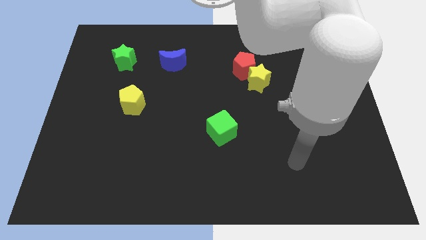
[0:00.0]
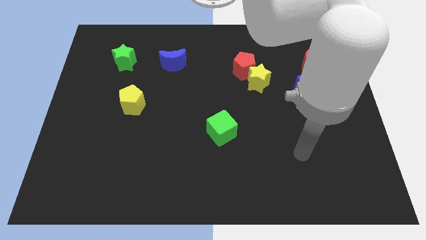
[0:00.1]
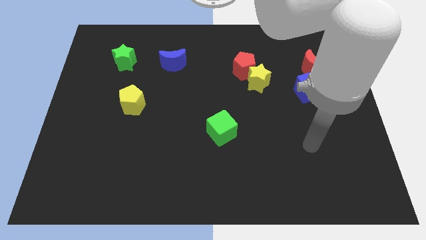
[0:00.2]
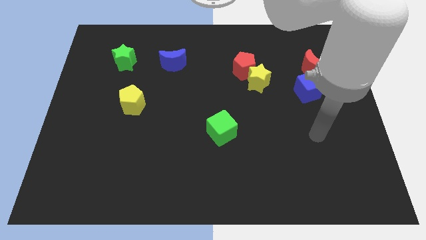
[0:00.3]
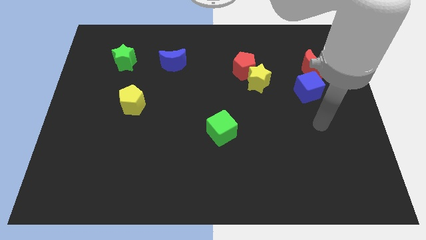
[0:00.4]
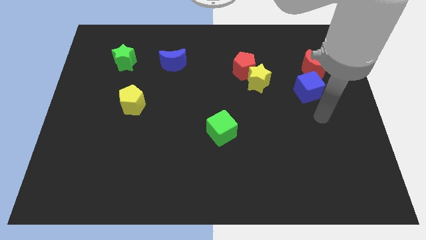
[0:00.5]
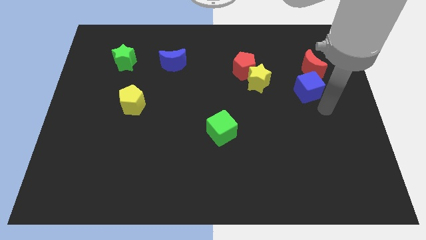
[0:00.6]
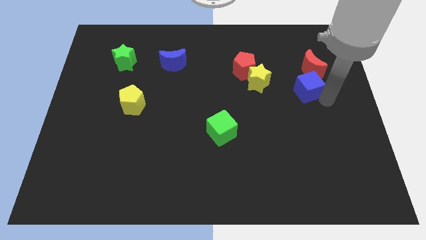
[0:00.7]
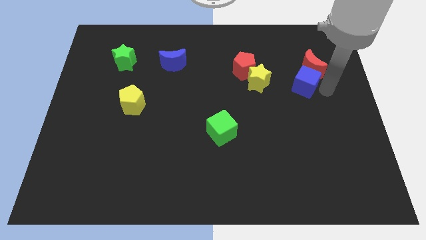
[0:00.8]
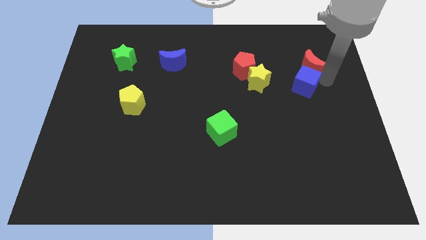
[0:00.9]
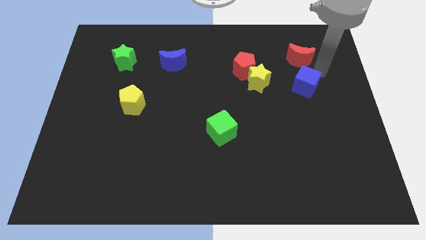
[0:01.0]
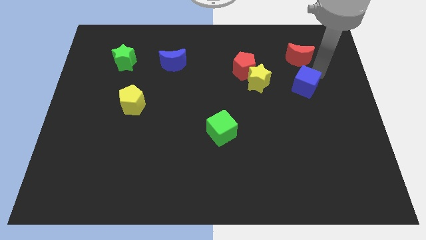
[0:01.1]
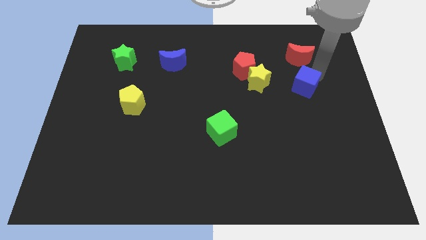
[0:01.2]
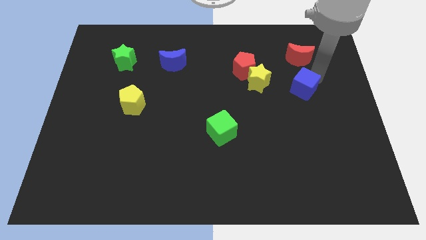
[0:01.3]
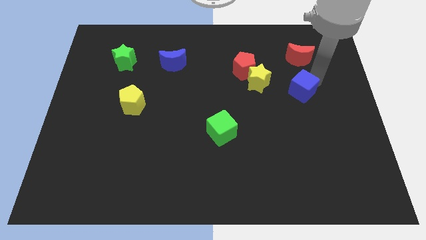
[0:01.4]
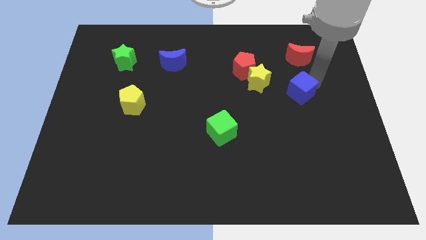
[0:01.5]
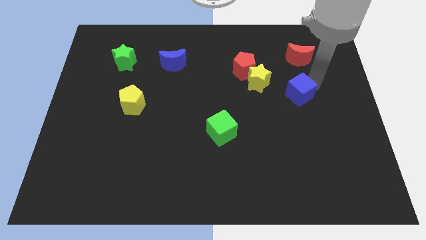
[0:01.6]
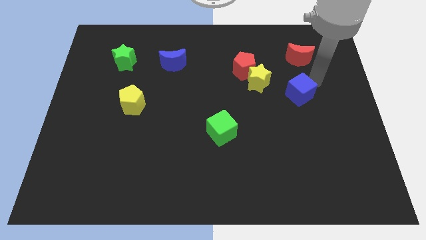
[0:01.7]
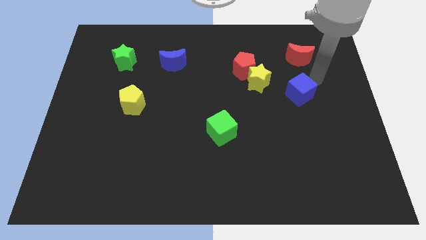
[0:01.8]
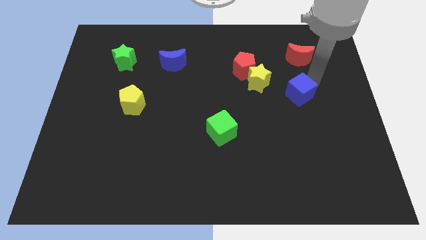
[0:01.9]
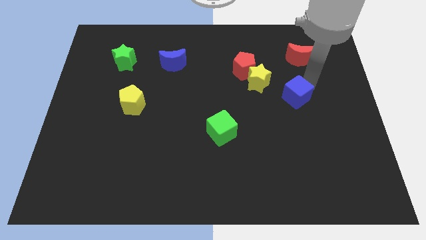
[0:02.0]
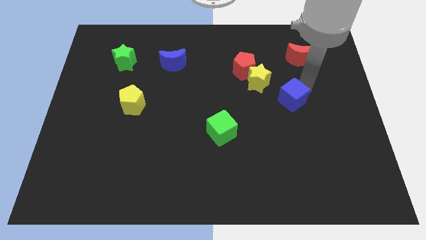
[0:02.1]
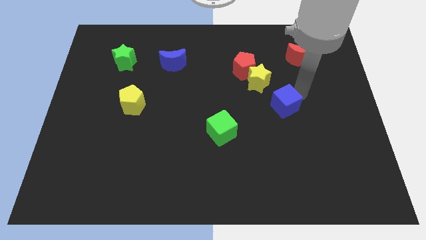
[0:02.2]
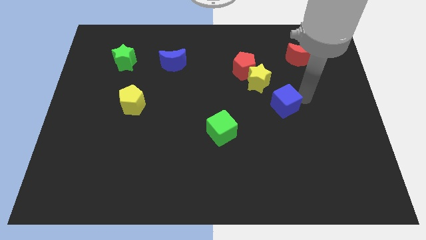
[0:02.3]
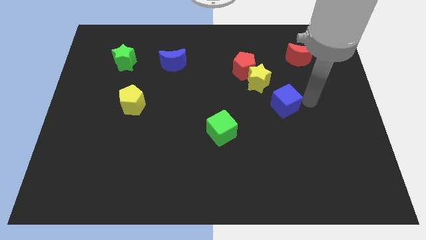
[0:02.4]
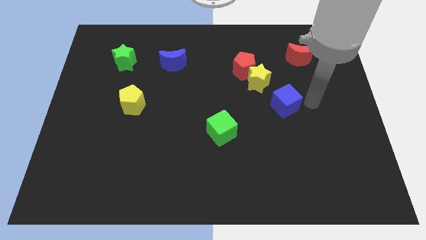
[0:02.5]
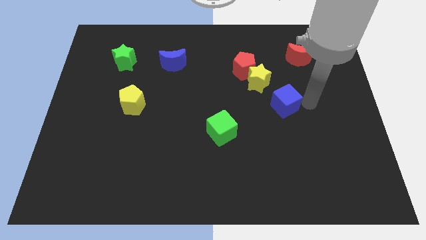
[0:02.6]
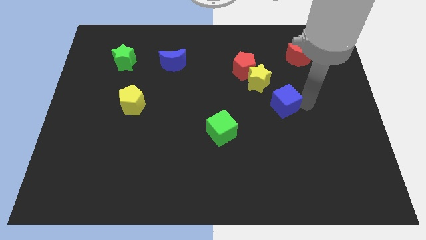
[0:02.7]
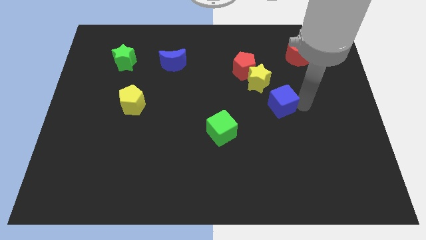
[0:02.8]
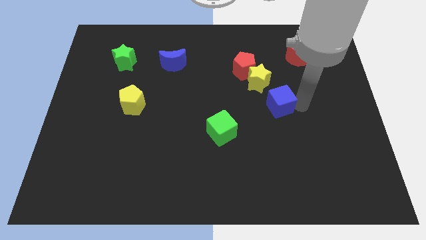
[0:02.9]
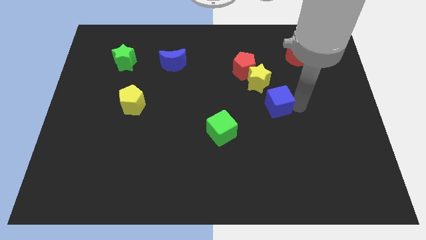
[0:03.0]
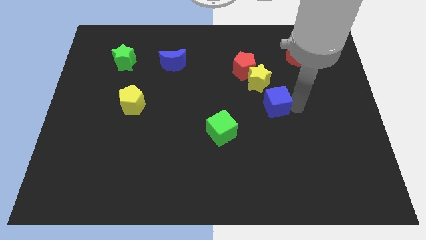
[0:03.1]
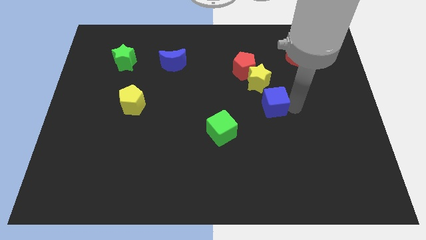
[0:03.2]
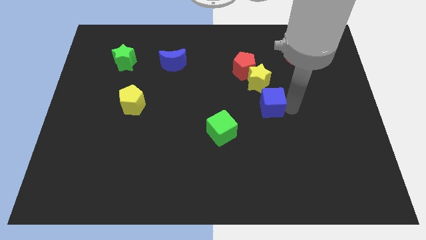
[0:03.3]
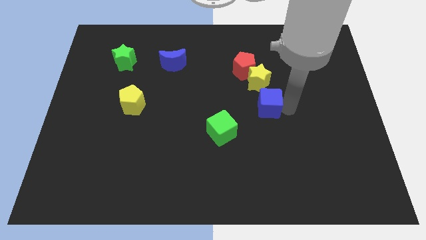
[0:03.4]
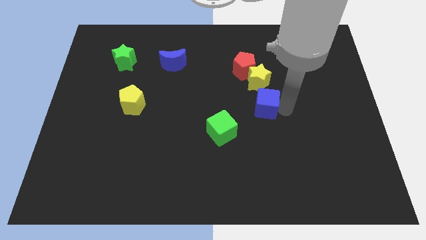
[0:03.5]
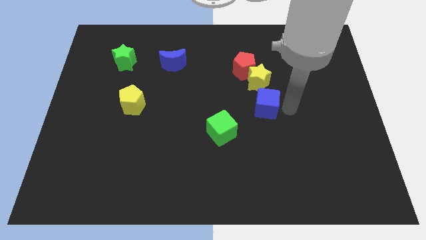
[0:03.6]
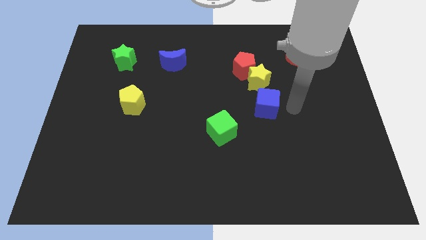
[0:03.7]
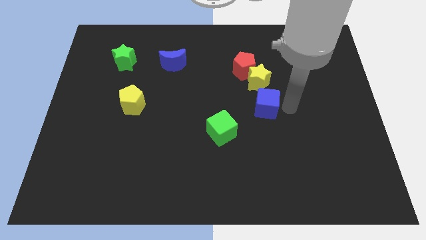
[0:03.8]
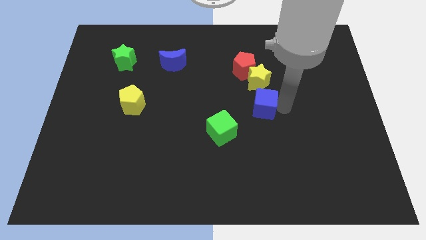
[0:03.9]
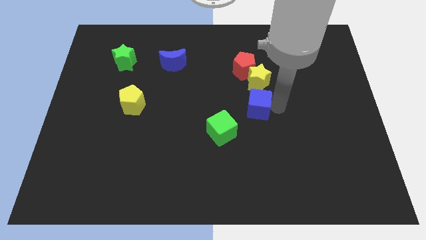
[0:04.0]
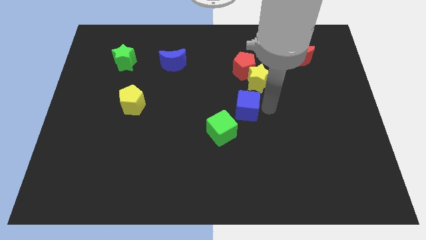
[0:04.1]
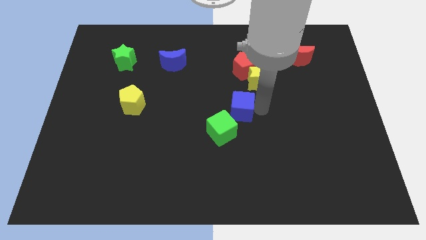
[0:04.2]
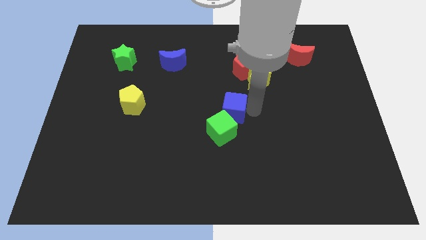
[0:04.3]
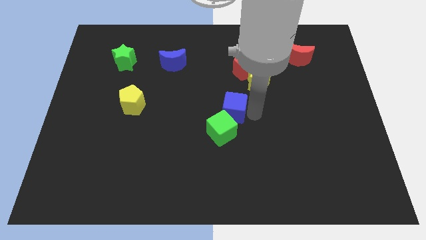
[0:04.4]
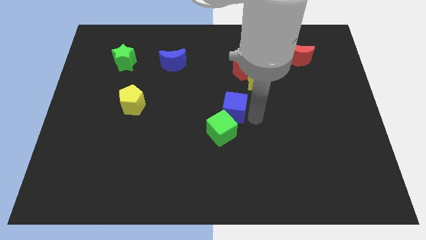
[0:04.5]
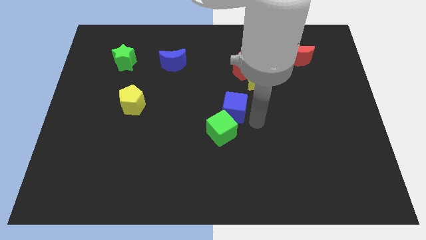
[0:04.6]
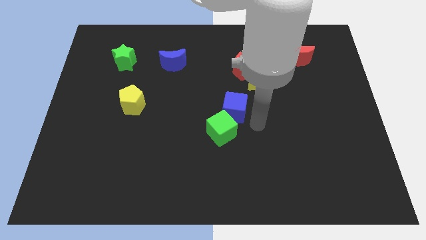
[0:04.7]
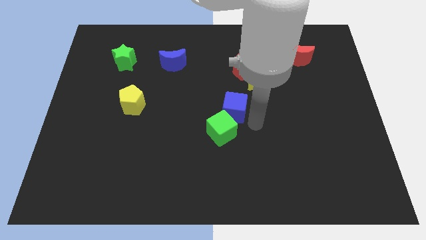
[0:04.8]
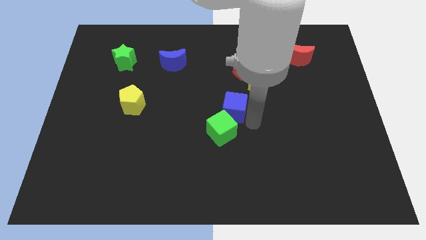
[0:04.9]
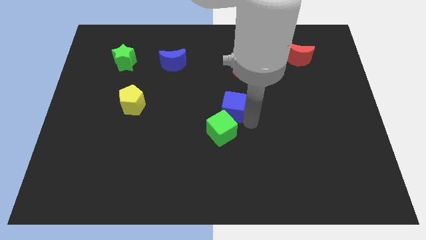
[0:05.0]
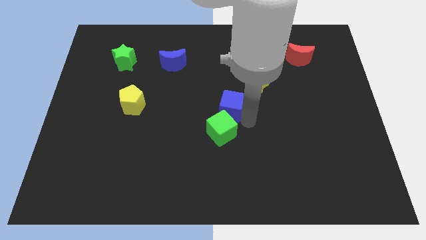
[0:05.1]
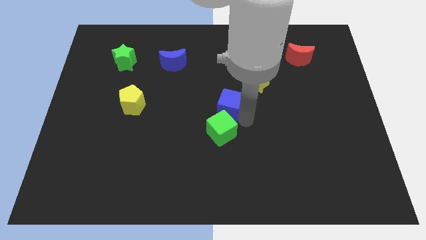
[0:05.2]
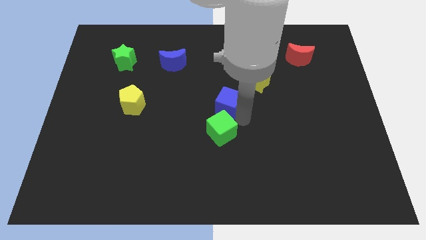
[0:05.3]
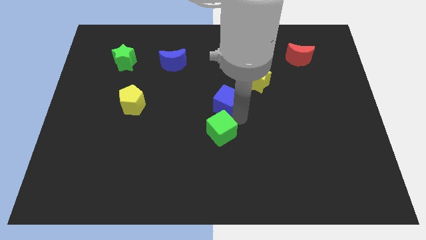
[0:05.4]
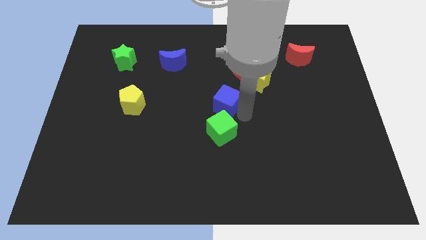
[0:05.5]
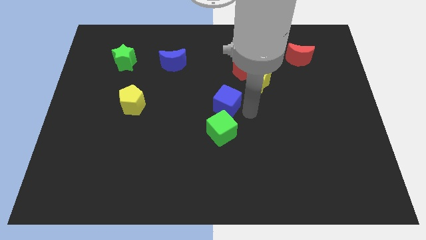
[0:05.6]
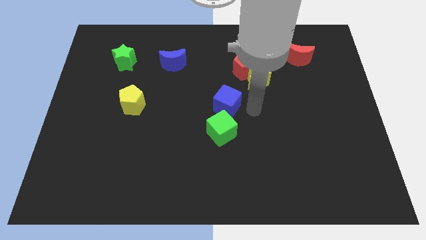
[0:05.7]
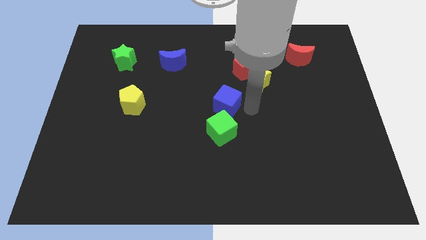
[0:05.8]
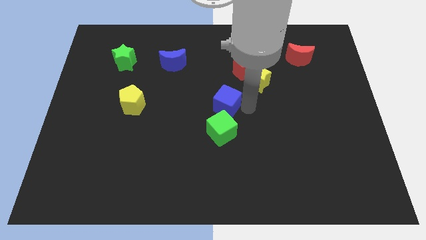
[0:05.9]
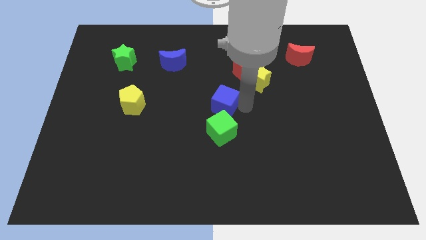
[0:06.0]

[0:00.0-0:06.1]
move the blue cube to the left

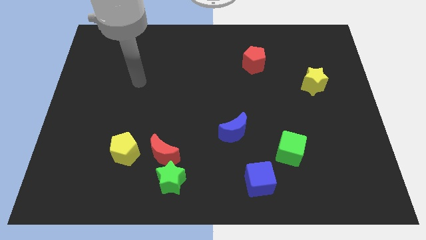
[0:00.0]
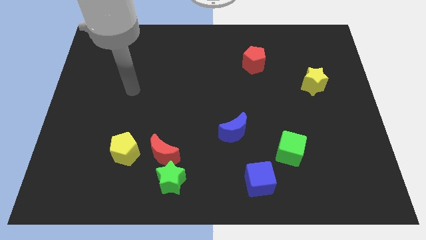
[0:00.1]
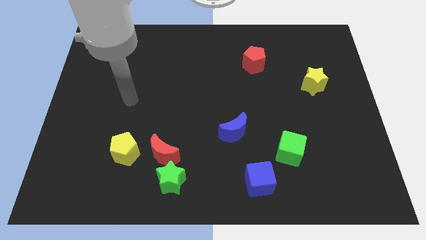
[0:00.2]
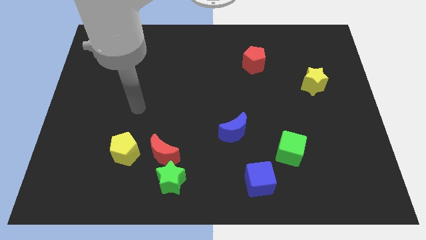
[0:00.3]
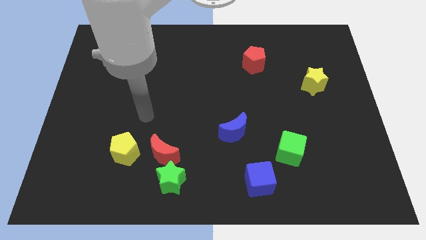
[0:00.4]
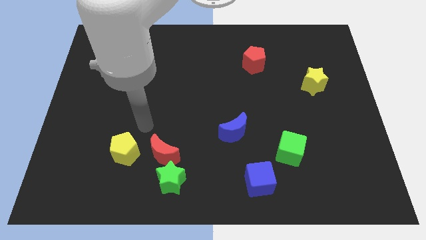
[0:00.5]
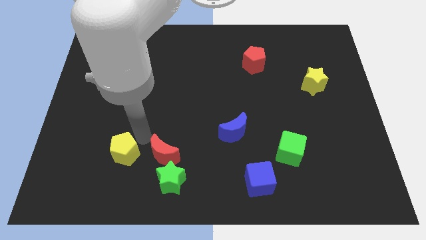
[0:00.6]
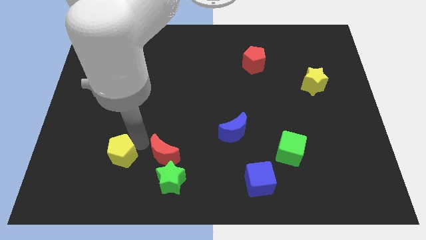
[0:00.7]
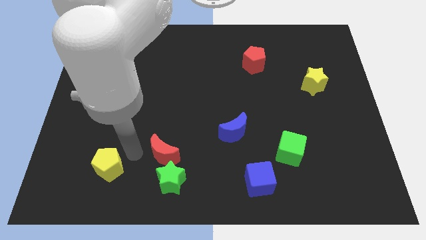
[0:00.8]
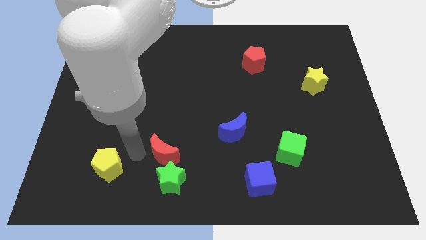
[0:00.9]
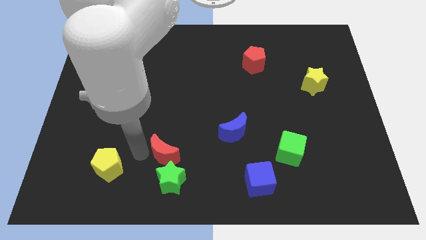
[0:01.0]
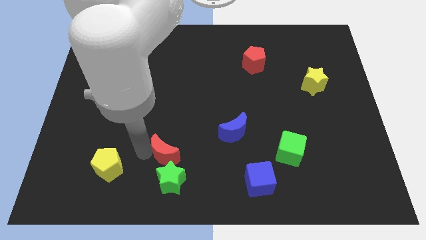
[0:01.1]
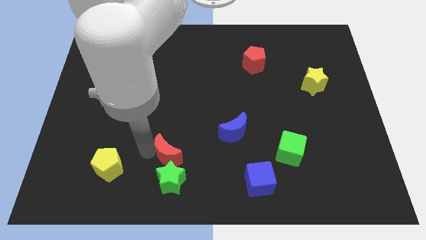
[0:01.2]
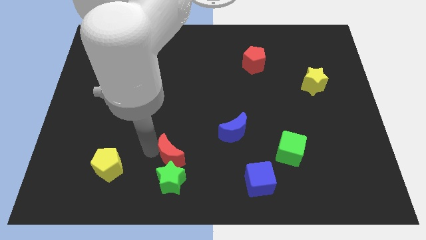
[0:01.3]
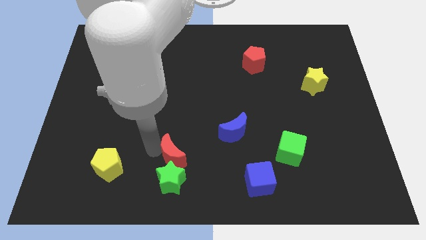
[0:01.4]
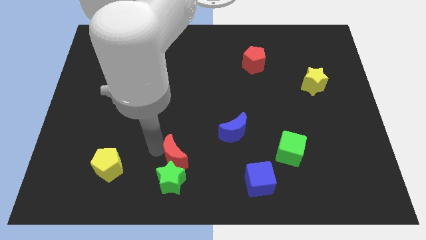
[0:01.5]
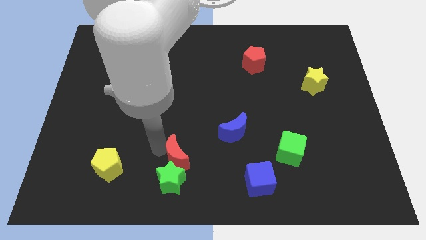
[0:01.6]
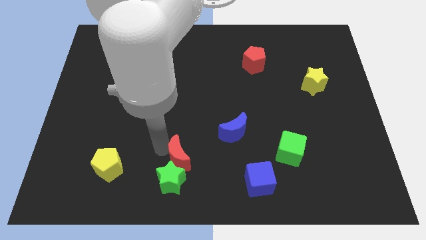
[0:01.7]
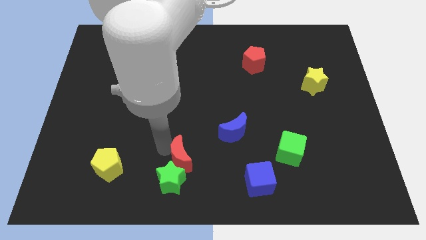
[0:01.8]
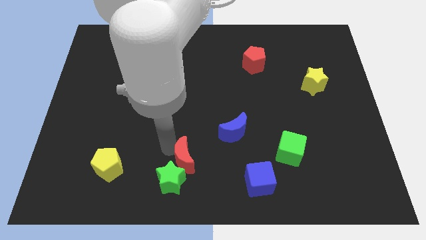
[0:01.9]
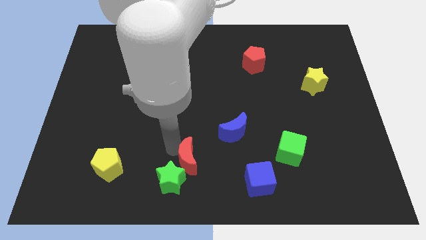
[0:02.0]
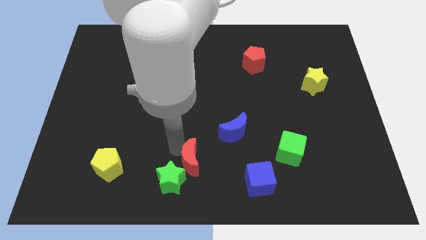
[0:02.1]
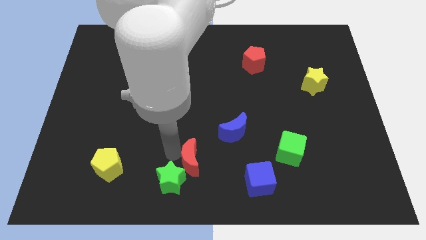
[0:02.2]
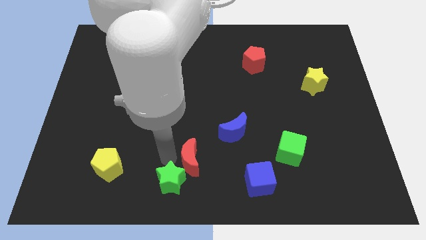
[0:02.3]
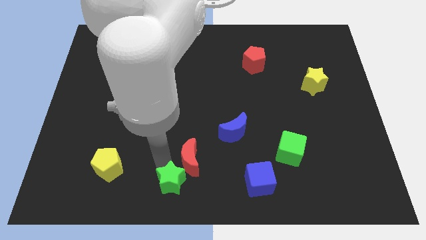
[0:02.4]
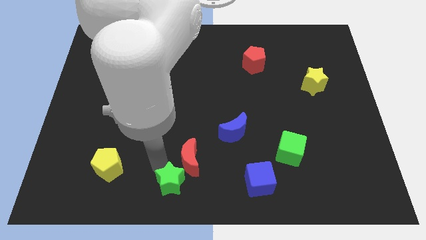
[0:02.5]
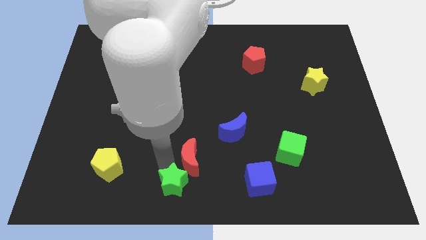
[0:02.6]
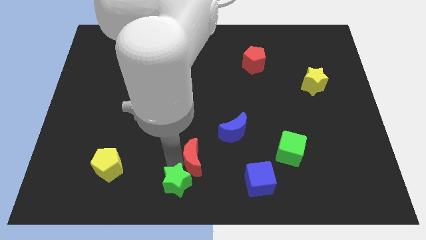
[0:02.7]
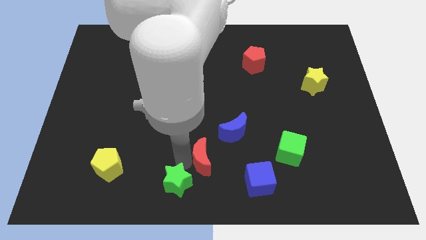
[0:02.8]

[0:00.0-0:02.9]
move the red moon right somewhat
